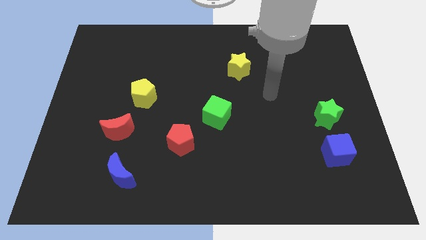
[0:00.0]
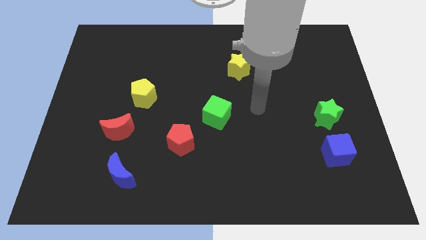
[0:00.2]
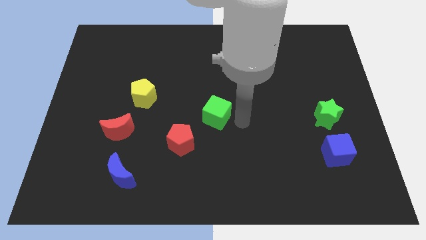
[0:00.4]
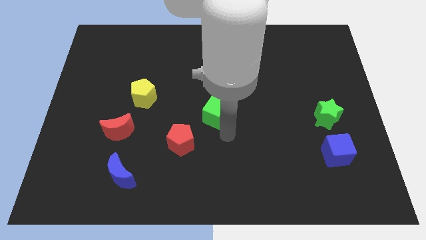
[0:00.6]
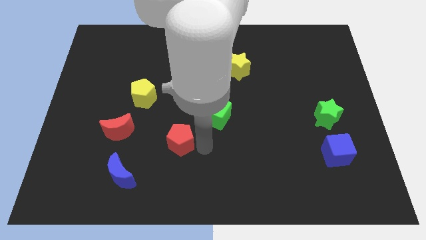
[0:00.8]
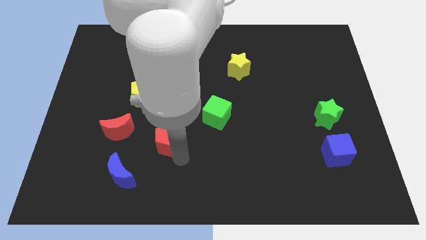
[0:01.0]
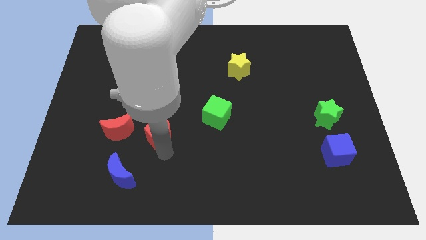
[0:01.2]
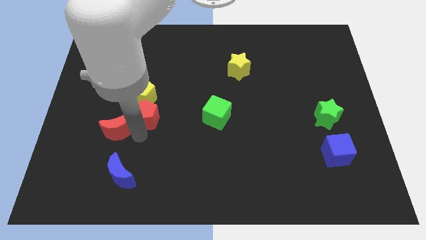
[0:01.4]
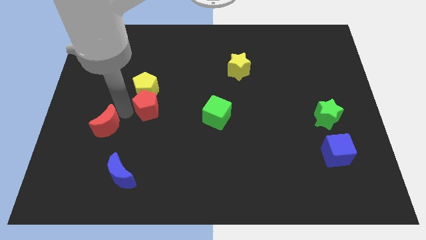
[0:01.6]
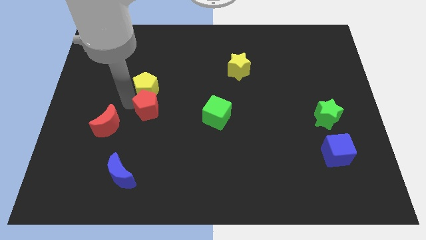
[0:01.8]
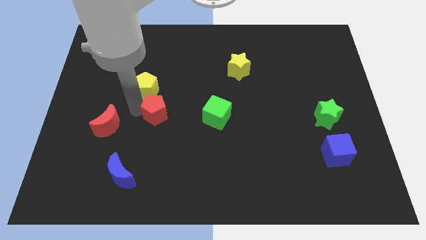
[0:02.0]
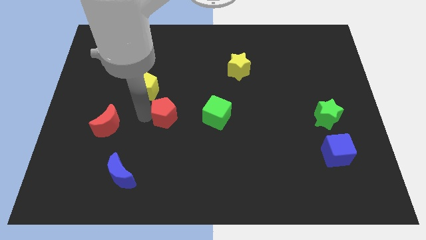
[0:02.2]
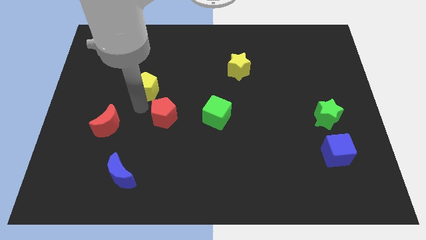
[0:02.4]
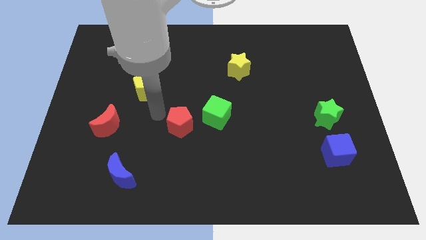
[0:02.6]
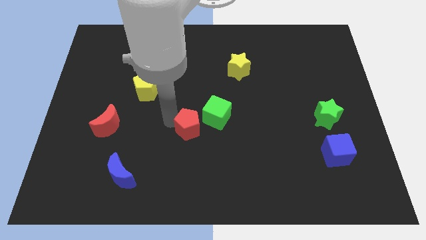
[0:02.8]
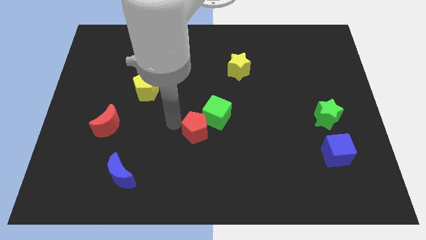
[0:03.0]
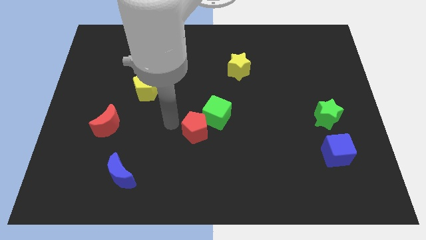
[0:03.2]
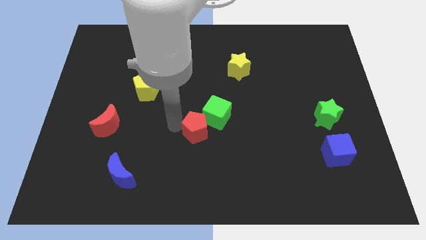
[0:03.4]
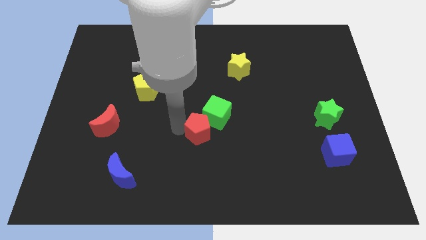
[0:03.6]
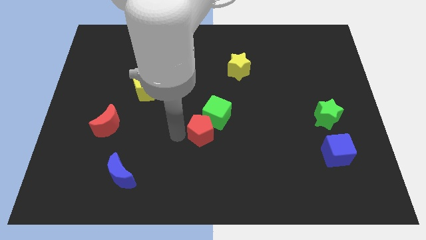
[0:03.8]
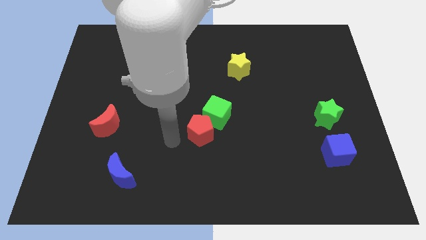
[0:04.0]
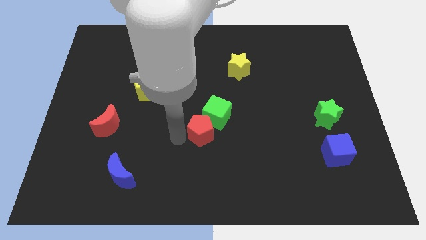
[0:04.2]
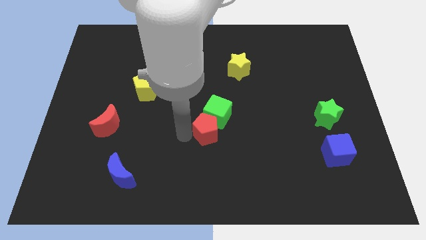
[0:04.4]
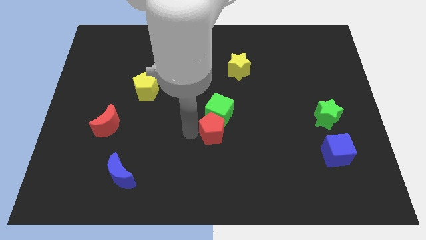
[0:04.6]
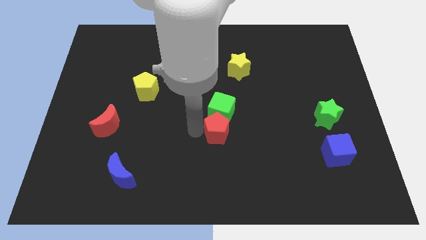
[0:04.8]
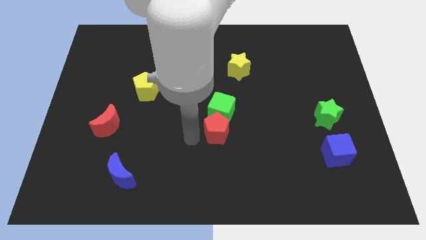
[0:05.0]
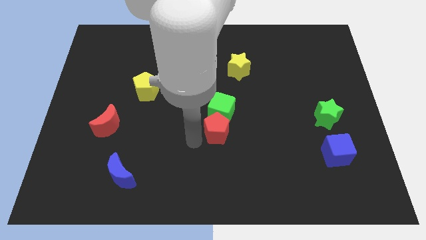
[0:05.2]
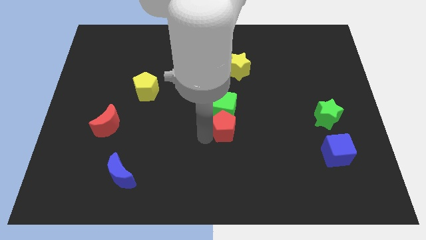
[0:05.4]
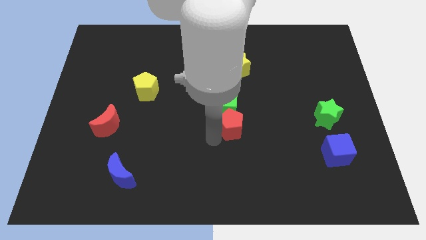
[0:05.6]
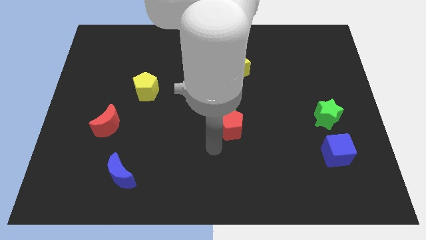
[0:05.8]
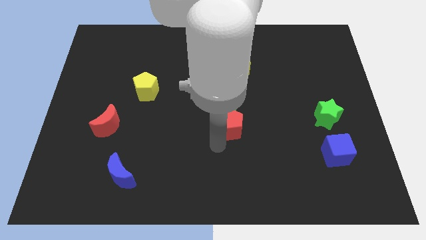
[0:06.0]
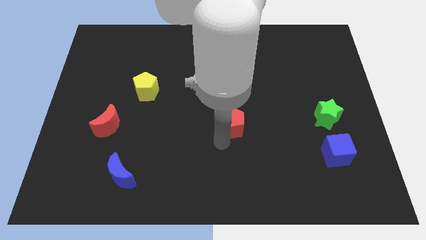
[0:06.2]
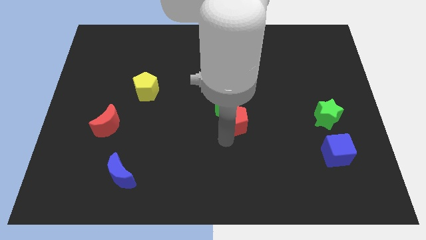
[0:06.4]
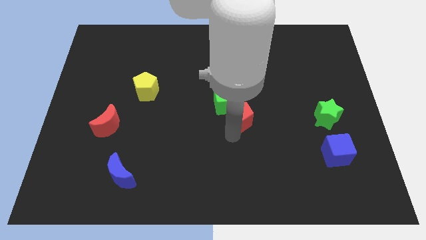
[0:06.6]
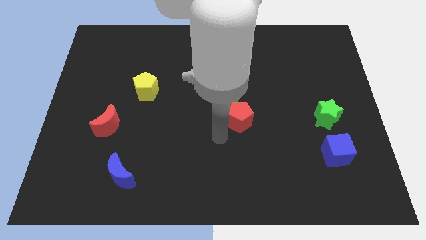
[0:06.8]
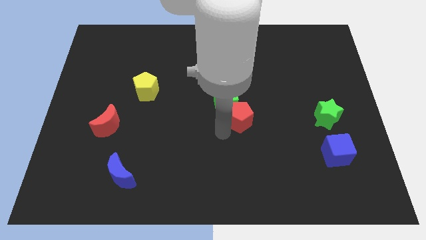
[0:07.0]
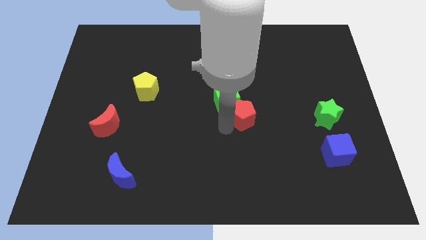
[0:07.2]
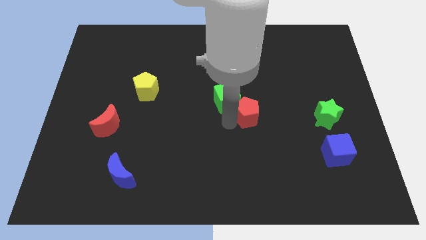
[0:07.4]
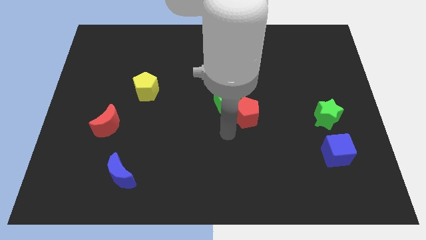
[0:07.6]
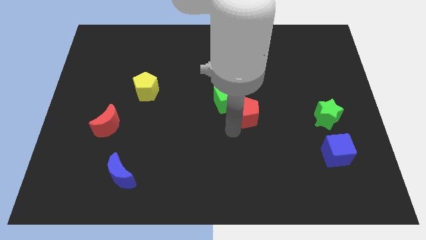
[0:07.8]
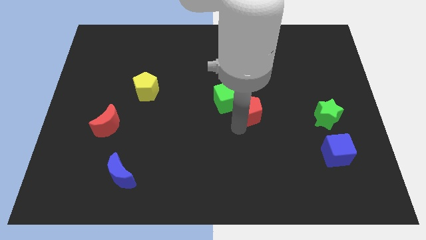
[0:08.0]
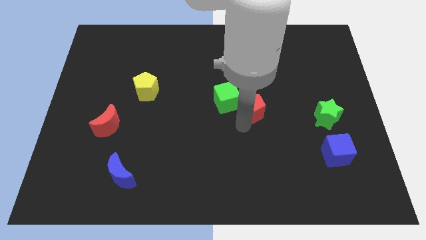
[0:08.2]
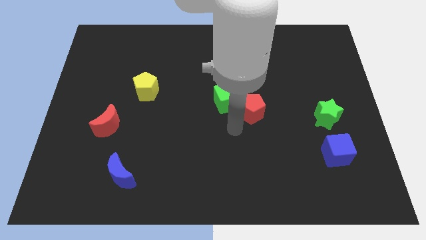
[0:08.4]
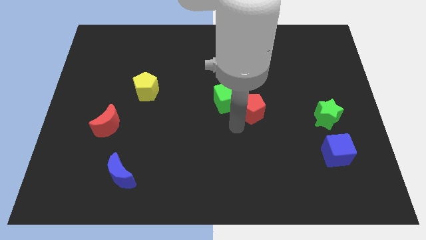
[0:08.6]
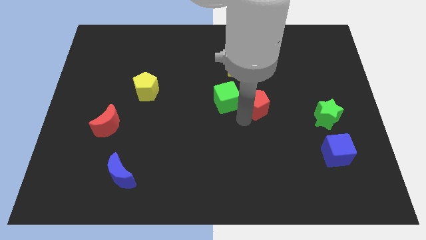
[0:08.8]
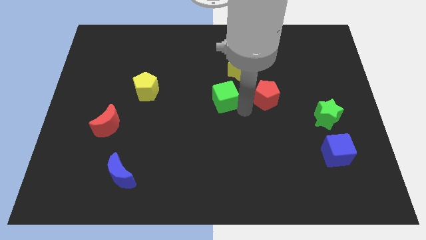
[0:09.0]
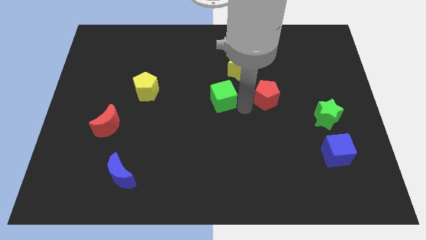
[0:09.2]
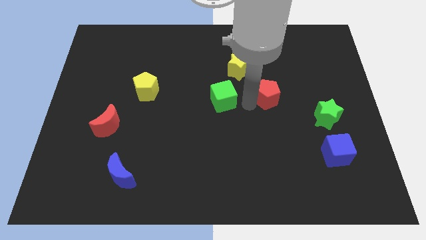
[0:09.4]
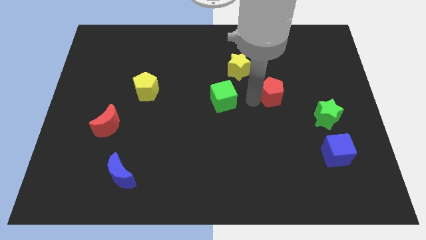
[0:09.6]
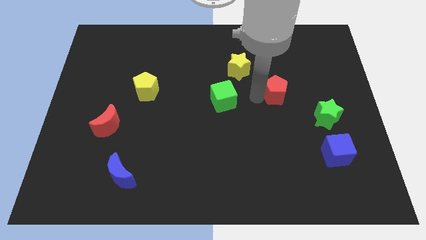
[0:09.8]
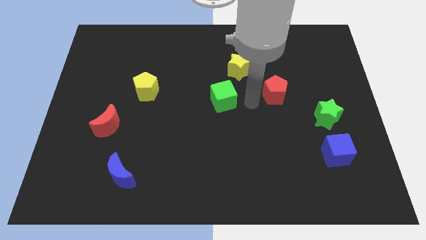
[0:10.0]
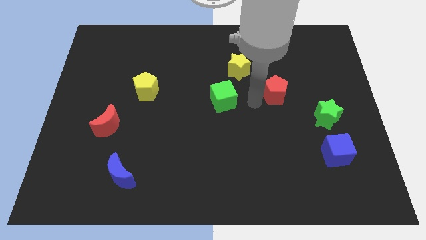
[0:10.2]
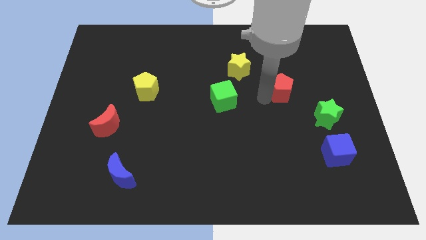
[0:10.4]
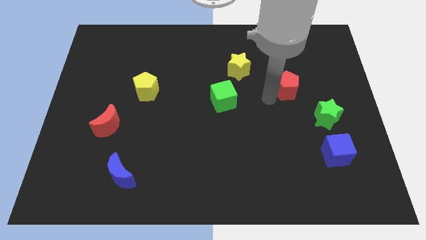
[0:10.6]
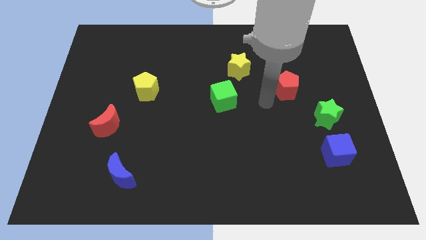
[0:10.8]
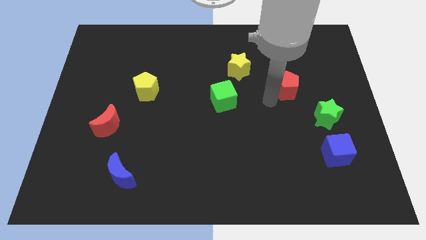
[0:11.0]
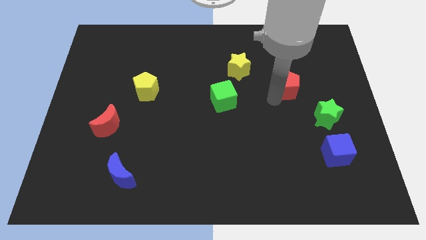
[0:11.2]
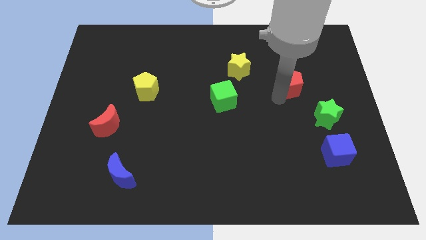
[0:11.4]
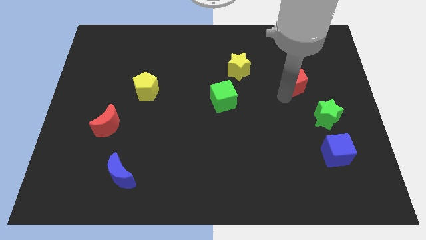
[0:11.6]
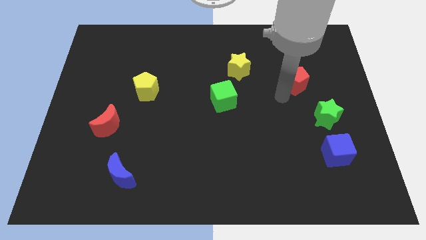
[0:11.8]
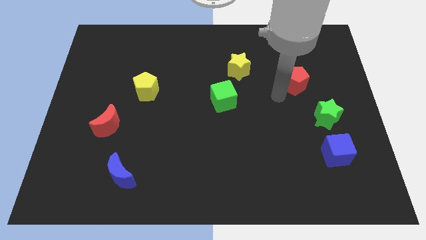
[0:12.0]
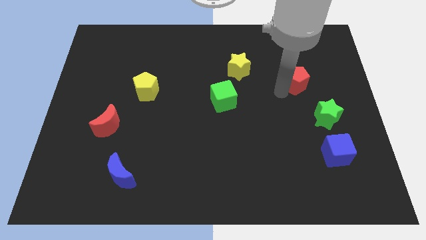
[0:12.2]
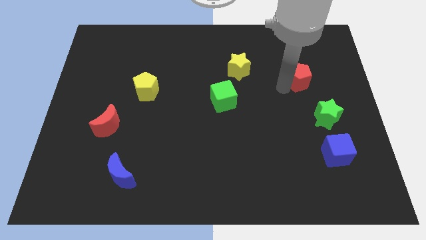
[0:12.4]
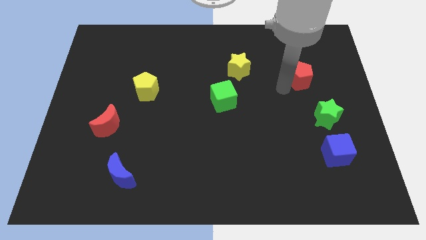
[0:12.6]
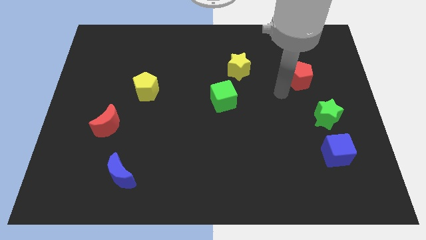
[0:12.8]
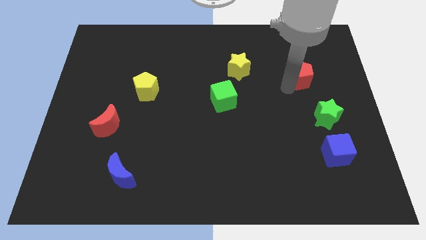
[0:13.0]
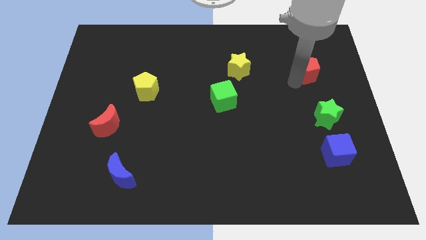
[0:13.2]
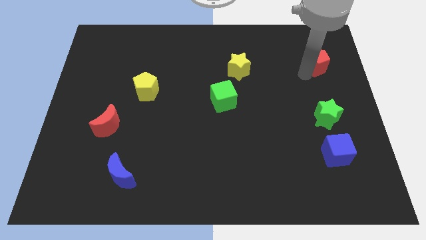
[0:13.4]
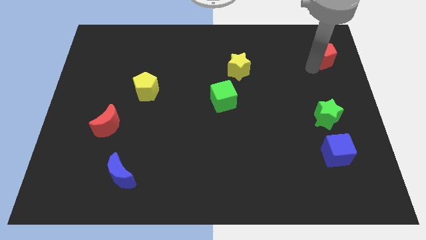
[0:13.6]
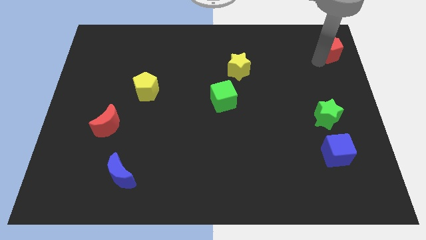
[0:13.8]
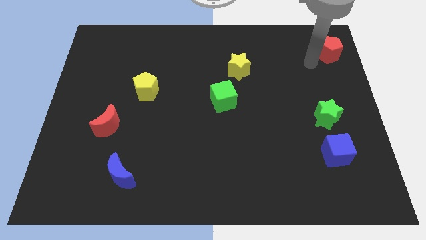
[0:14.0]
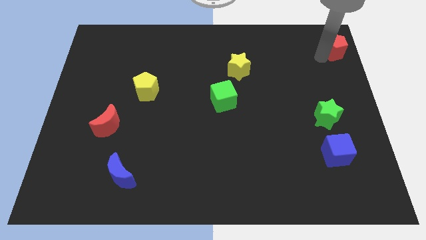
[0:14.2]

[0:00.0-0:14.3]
put the red pentagon to the top right
